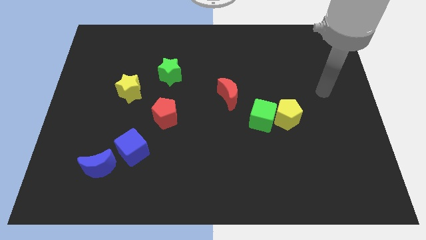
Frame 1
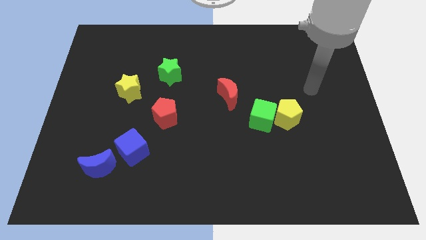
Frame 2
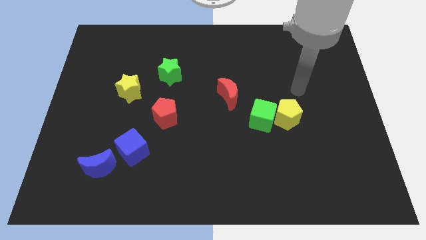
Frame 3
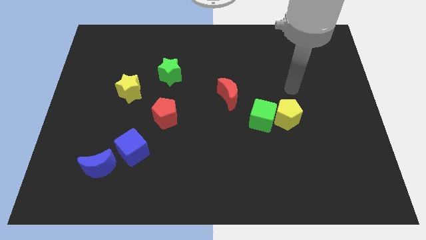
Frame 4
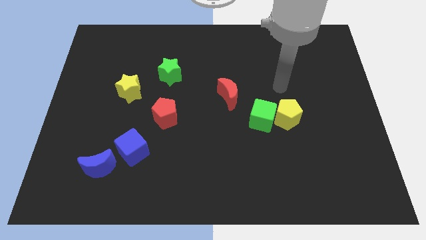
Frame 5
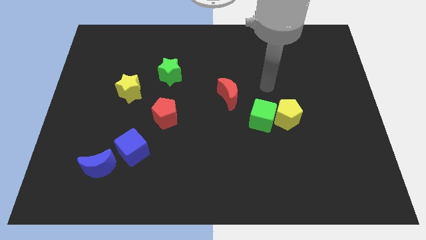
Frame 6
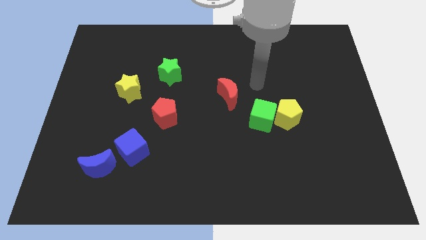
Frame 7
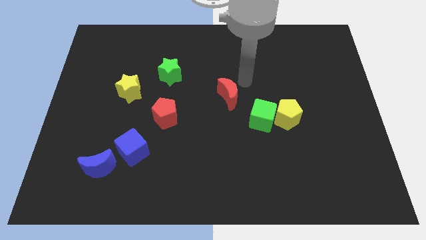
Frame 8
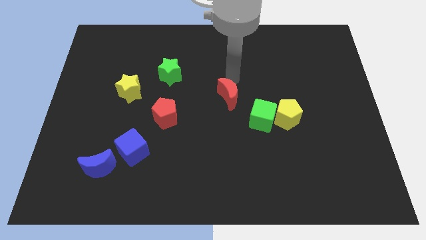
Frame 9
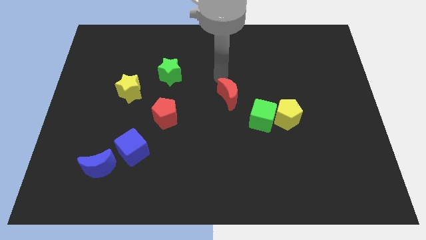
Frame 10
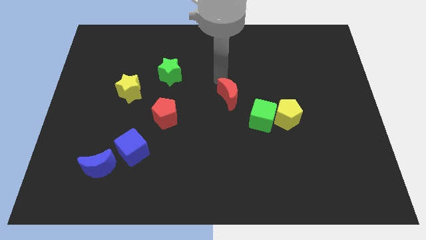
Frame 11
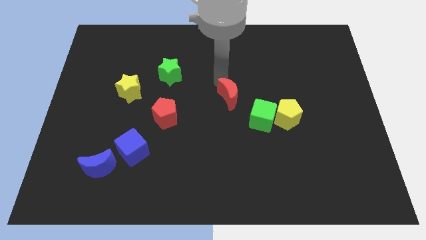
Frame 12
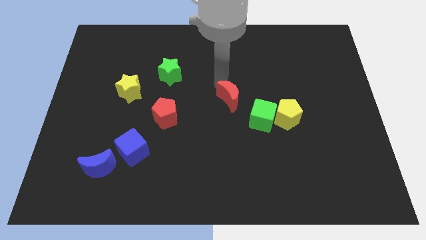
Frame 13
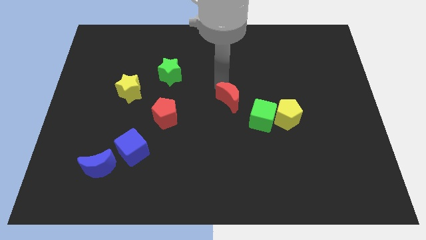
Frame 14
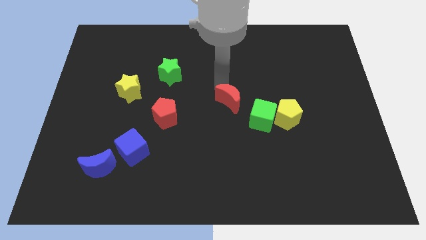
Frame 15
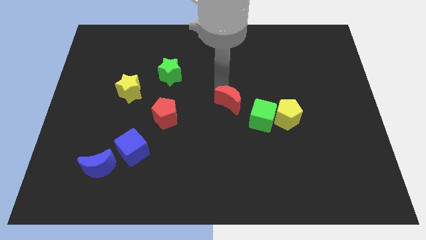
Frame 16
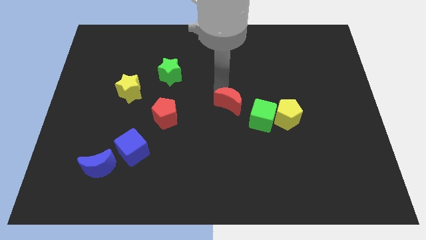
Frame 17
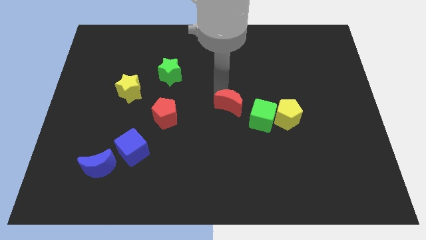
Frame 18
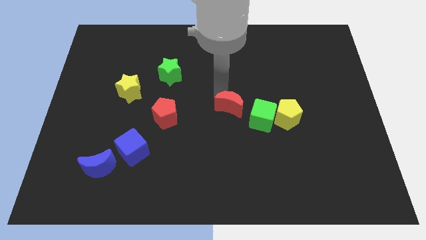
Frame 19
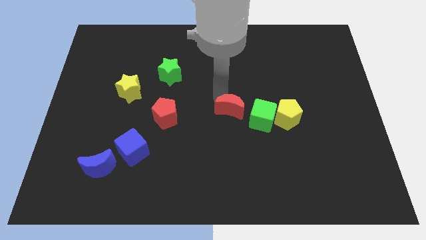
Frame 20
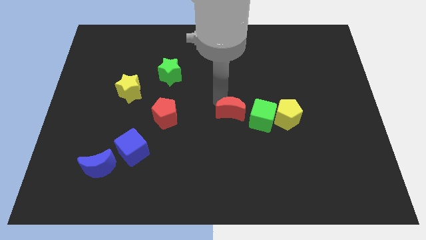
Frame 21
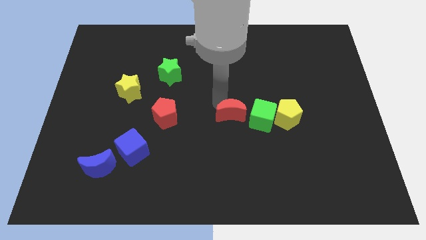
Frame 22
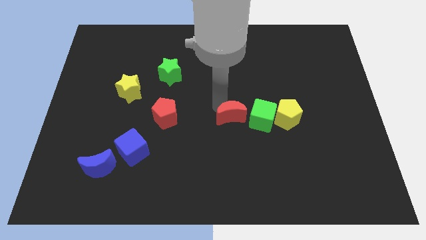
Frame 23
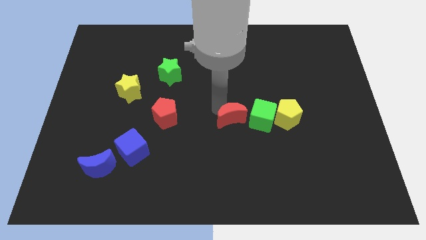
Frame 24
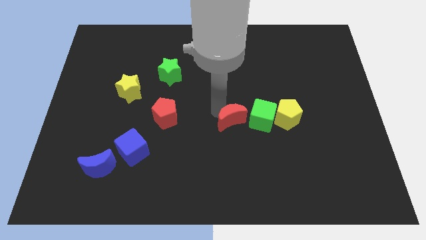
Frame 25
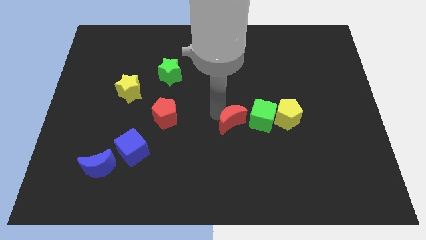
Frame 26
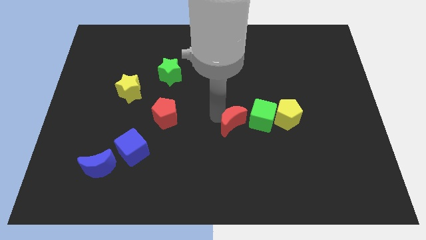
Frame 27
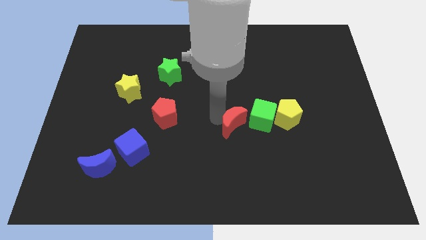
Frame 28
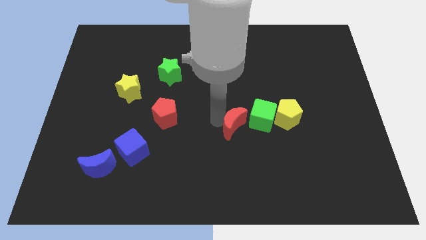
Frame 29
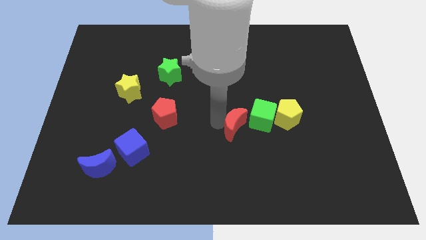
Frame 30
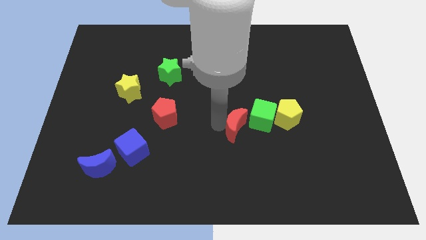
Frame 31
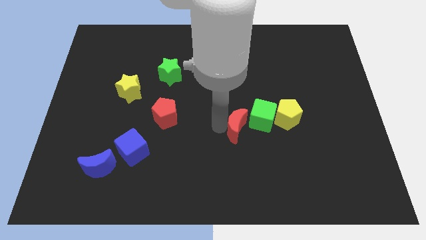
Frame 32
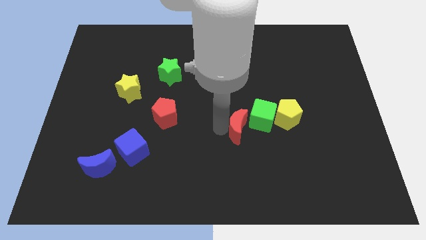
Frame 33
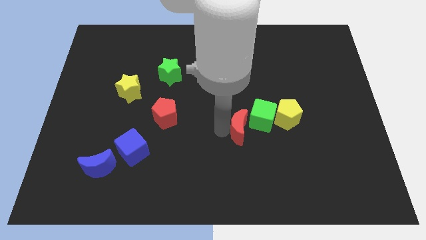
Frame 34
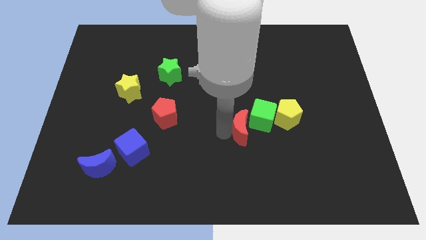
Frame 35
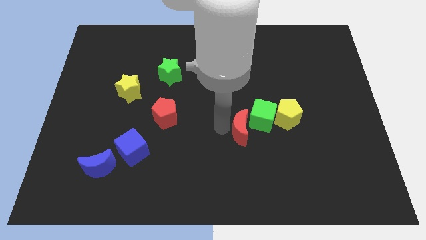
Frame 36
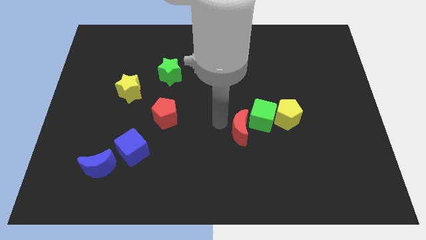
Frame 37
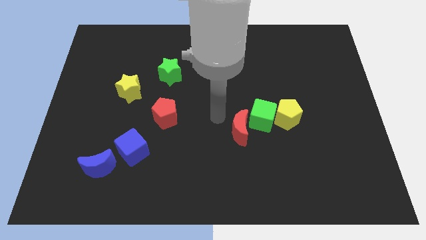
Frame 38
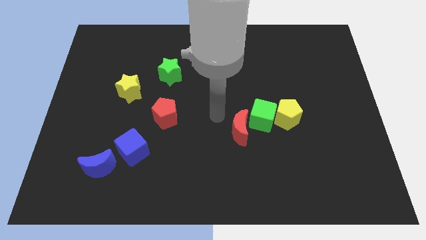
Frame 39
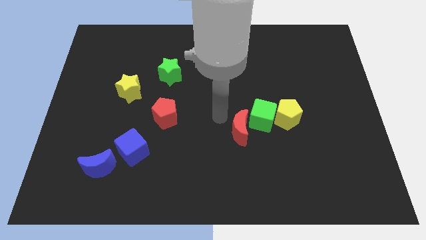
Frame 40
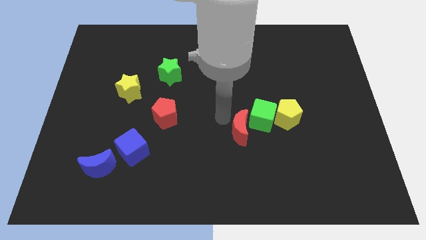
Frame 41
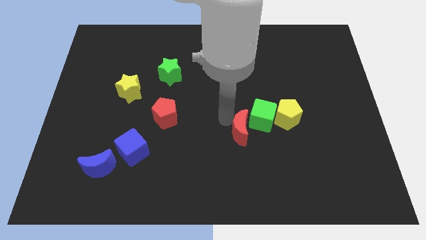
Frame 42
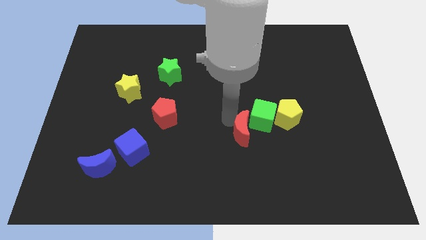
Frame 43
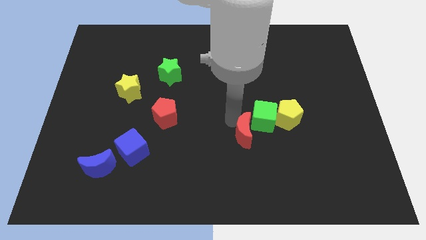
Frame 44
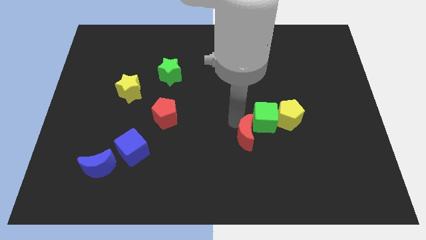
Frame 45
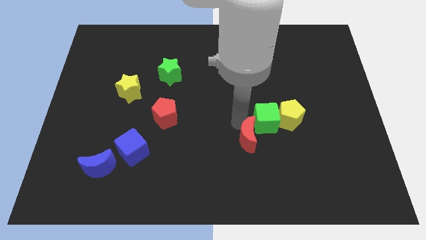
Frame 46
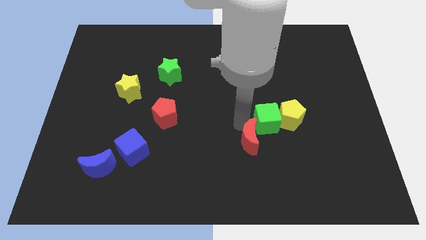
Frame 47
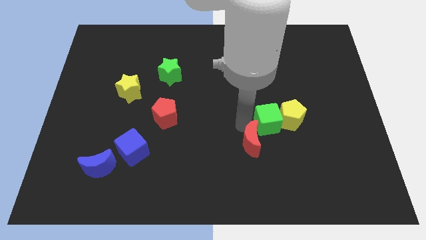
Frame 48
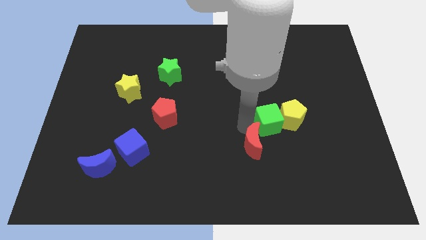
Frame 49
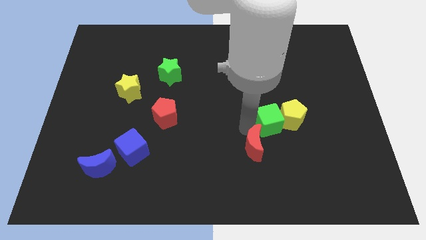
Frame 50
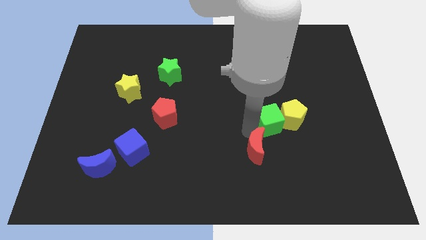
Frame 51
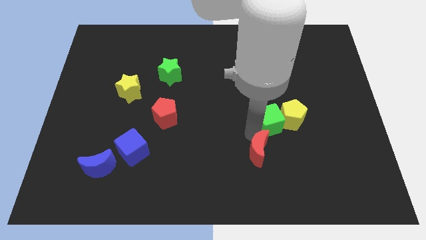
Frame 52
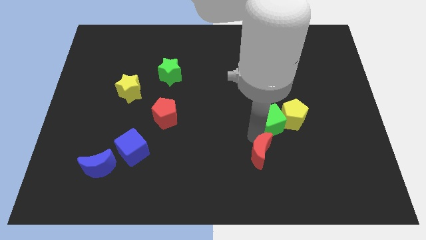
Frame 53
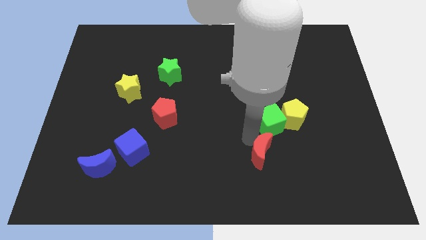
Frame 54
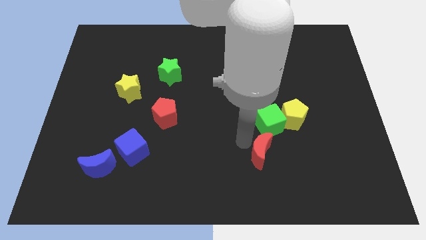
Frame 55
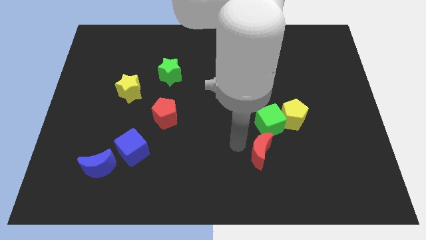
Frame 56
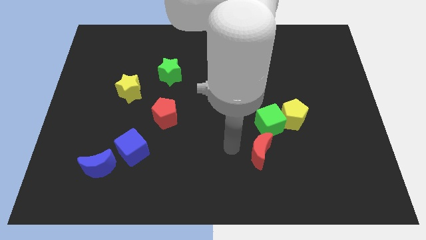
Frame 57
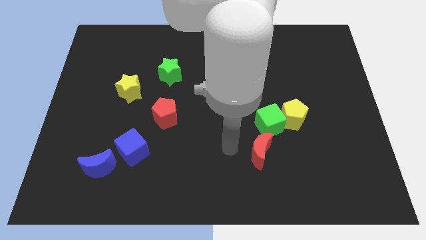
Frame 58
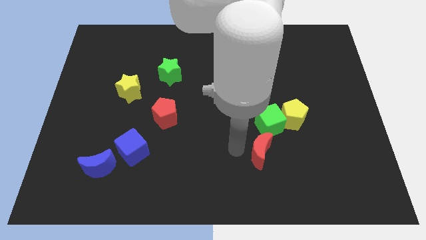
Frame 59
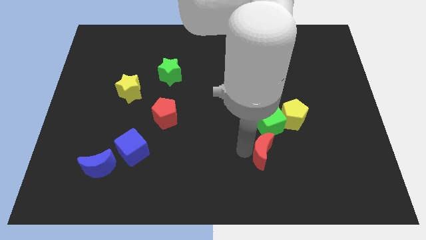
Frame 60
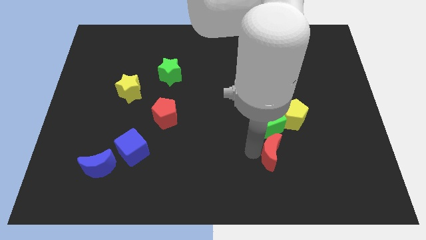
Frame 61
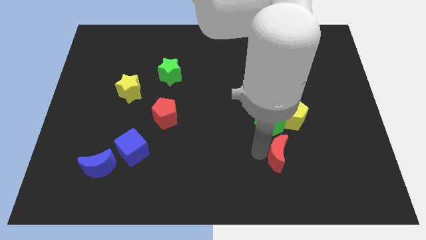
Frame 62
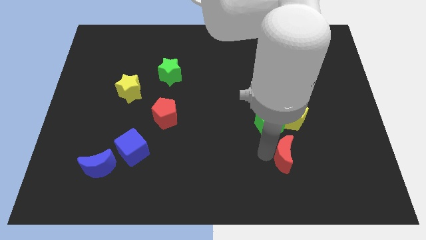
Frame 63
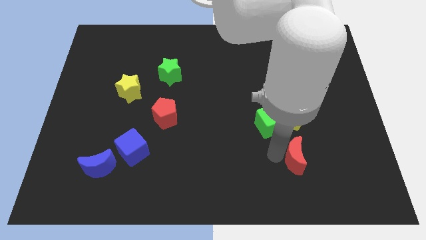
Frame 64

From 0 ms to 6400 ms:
move the red moon downwards and then to the right

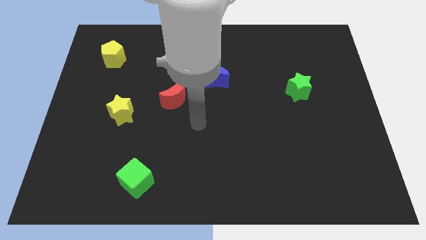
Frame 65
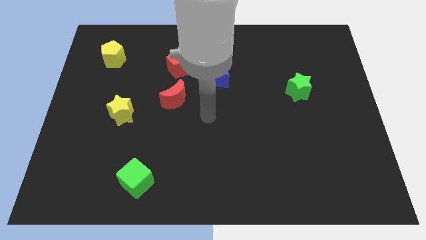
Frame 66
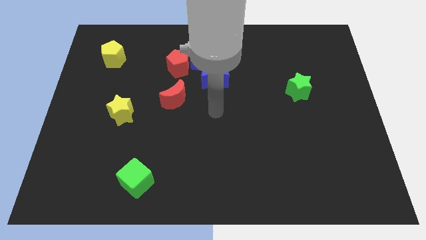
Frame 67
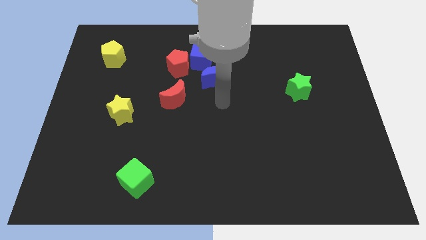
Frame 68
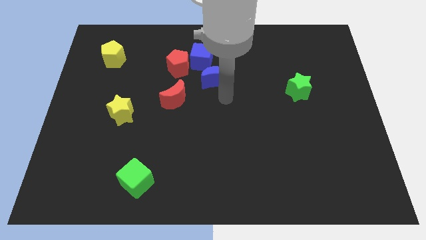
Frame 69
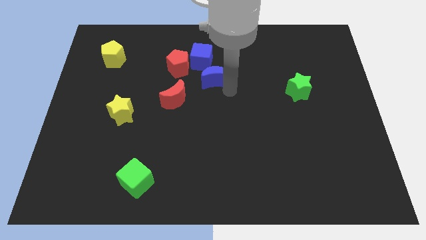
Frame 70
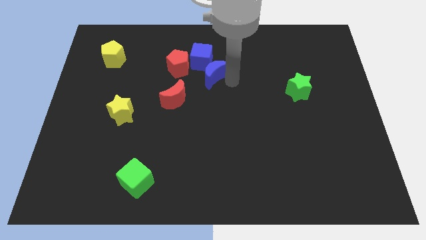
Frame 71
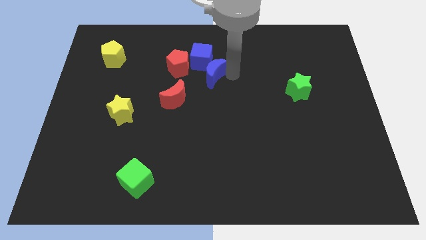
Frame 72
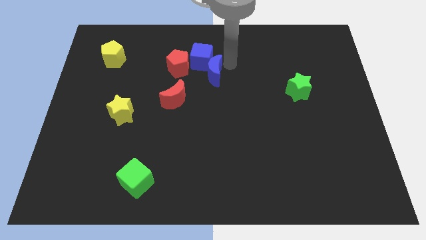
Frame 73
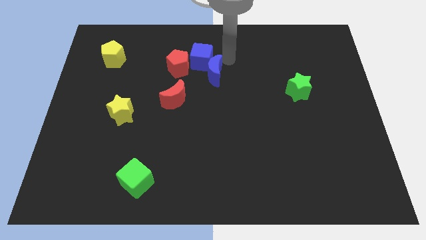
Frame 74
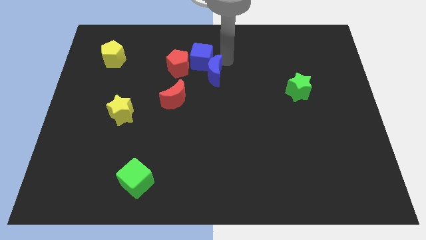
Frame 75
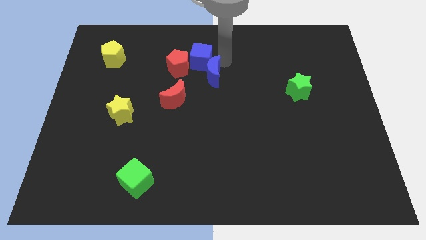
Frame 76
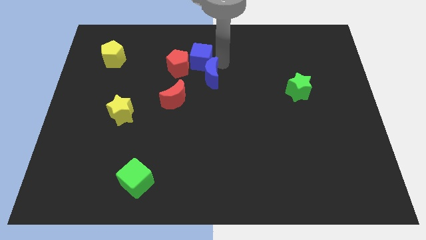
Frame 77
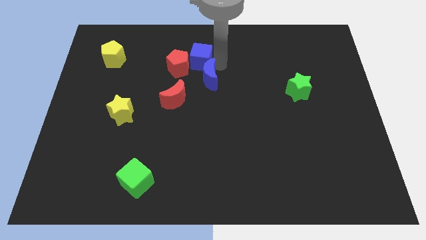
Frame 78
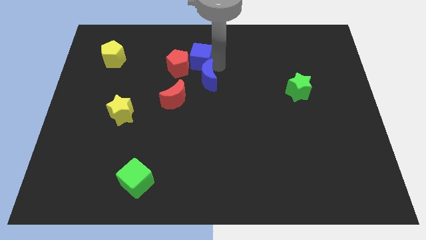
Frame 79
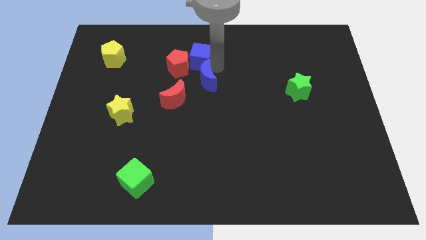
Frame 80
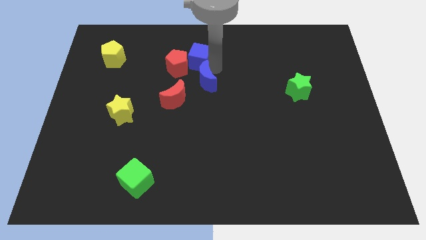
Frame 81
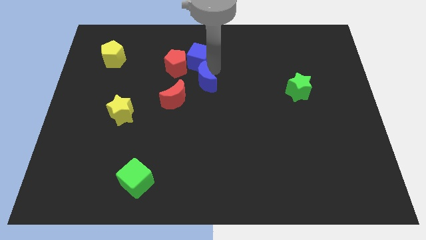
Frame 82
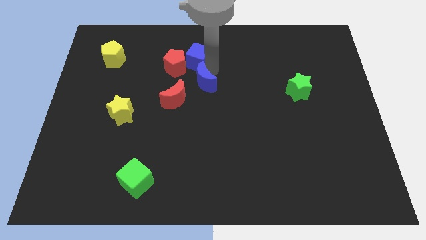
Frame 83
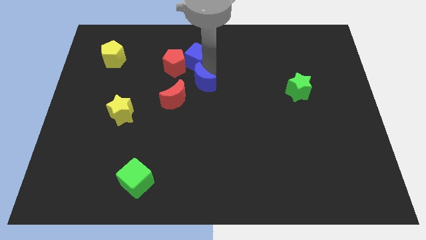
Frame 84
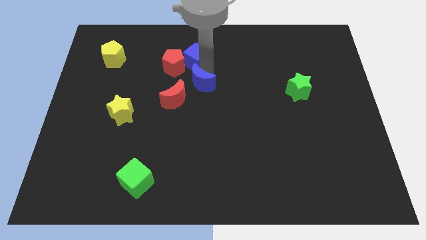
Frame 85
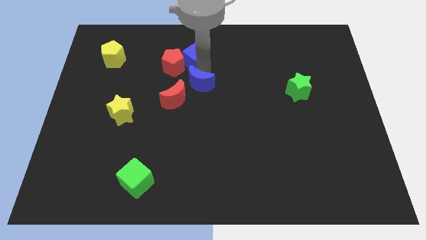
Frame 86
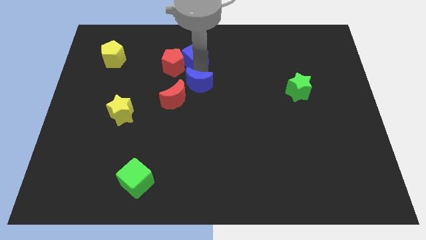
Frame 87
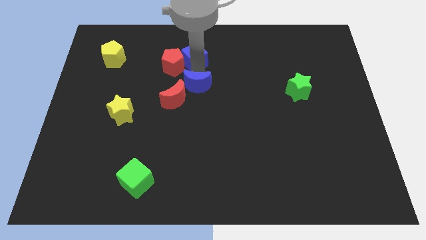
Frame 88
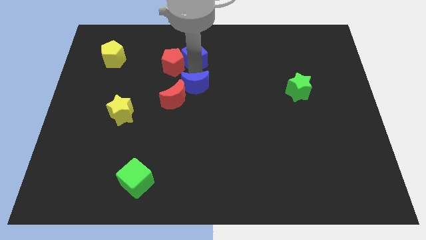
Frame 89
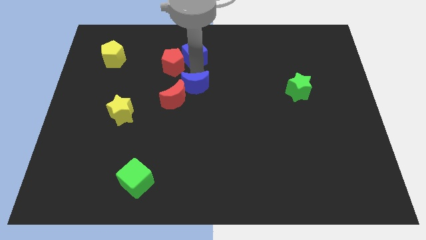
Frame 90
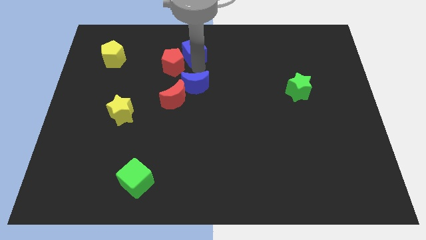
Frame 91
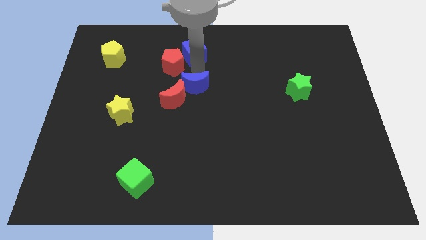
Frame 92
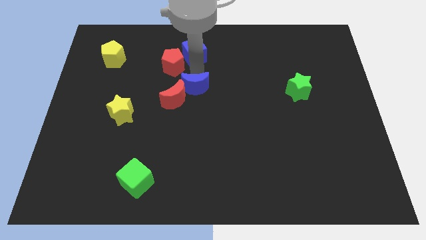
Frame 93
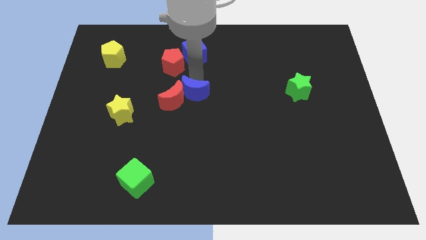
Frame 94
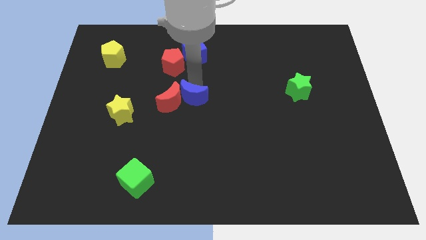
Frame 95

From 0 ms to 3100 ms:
slightly move the blue moon diagonally downwards and left
